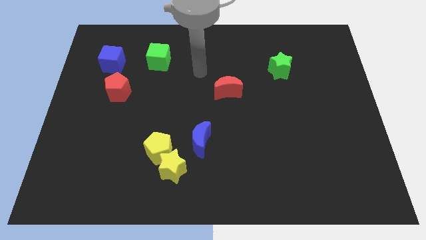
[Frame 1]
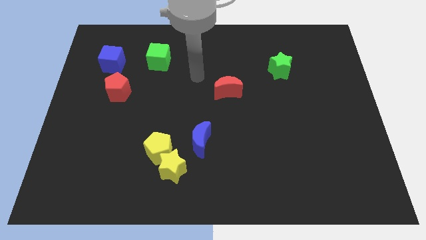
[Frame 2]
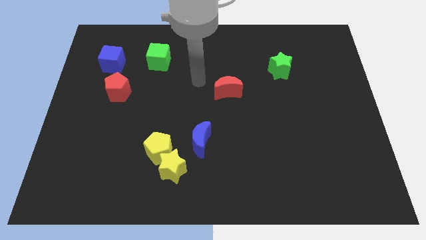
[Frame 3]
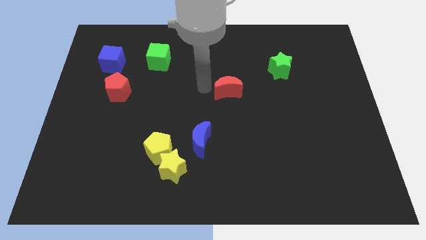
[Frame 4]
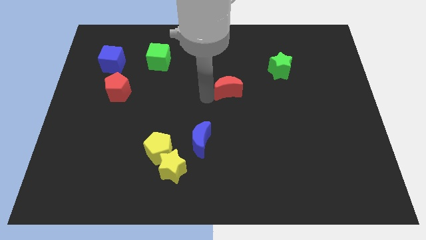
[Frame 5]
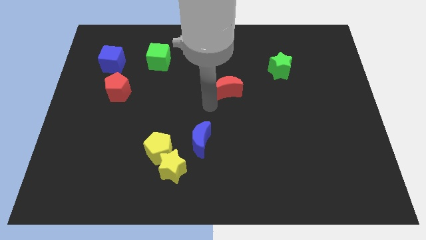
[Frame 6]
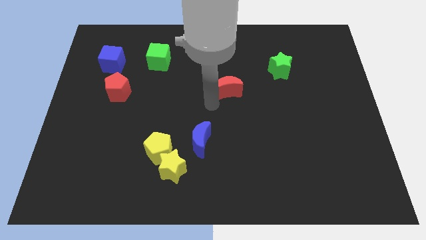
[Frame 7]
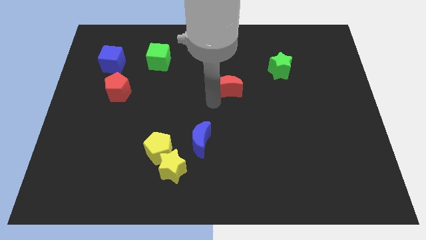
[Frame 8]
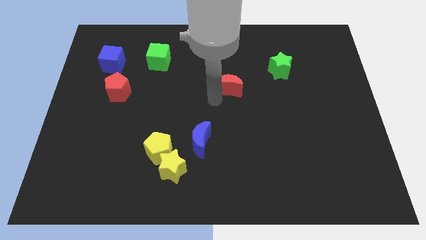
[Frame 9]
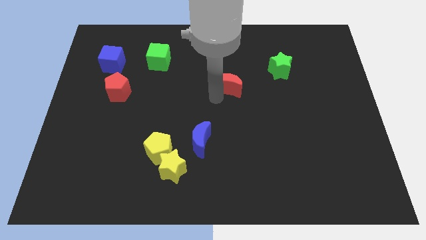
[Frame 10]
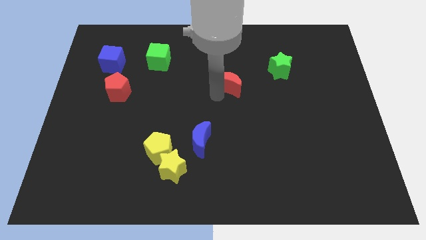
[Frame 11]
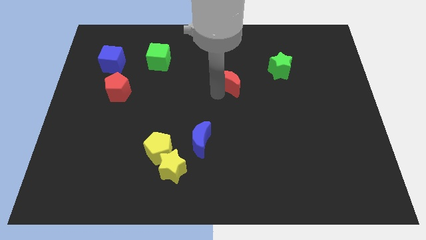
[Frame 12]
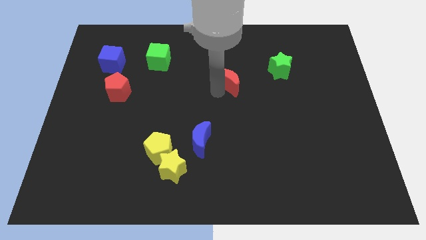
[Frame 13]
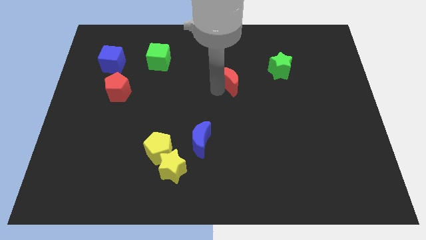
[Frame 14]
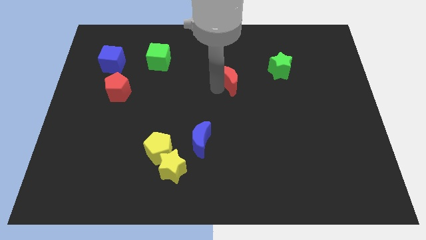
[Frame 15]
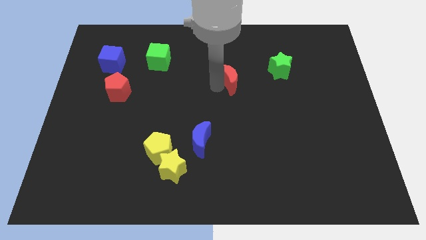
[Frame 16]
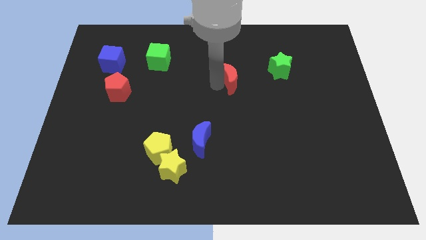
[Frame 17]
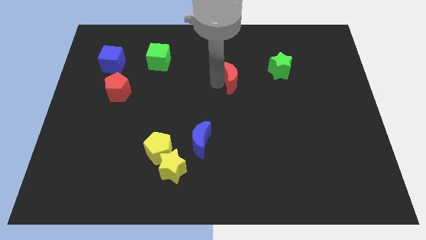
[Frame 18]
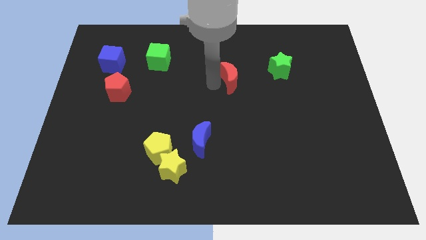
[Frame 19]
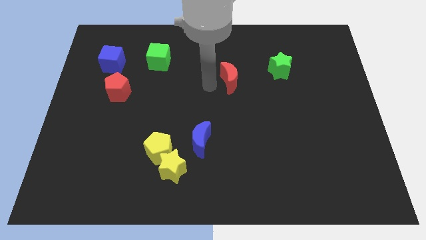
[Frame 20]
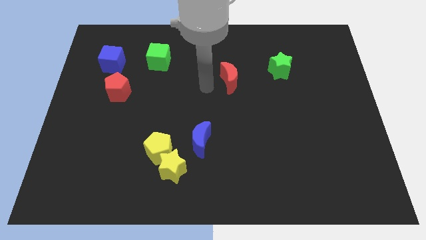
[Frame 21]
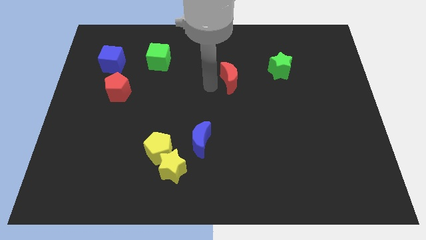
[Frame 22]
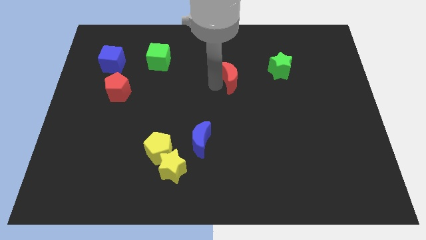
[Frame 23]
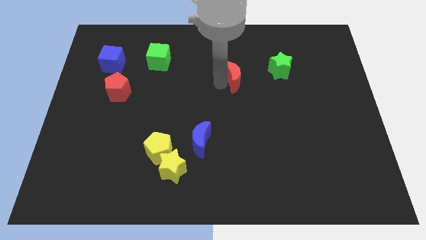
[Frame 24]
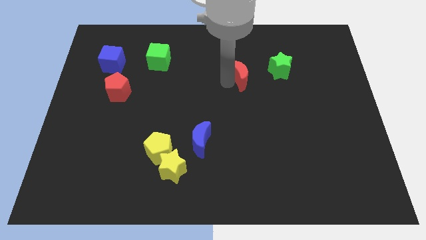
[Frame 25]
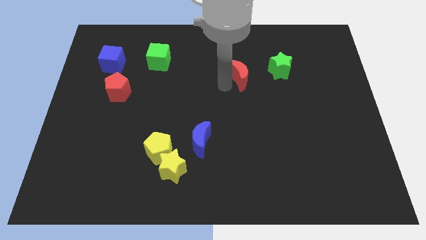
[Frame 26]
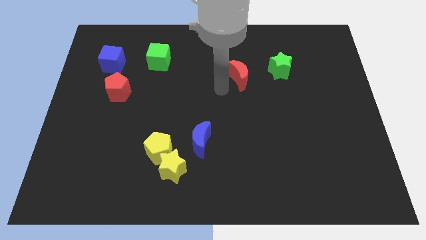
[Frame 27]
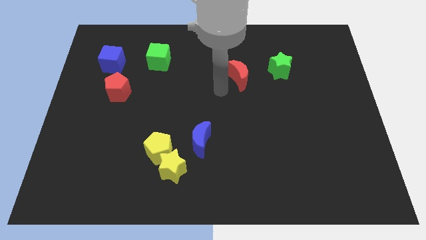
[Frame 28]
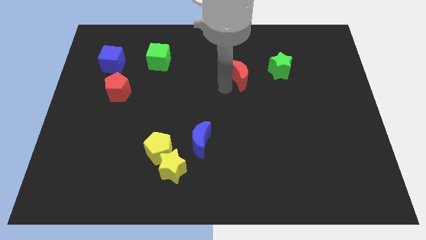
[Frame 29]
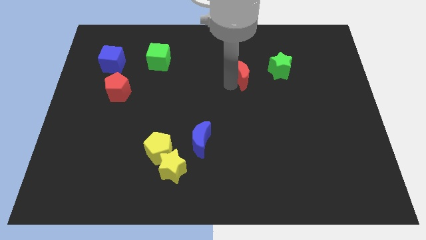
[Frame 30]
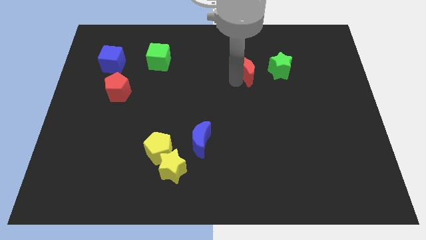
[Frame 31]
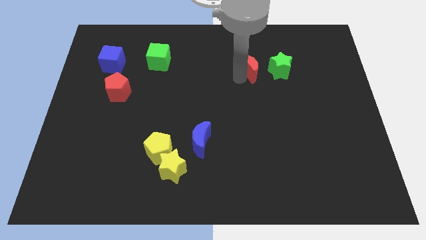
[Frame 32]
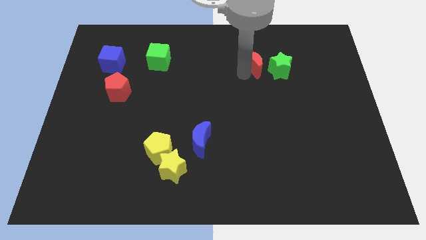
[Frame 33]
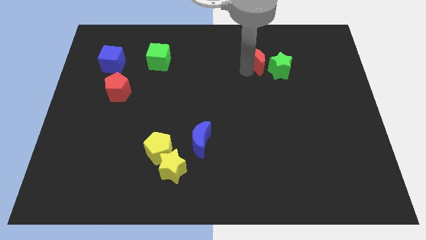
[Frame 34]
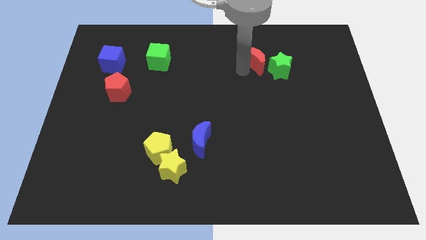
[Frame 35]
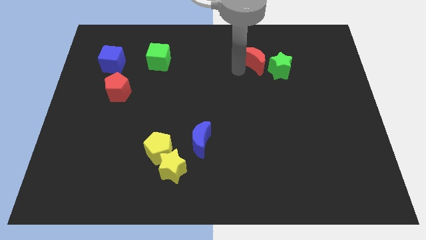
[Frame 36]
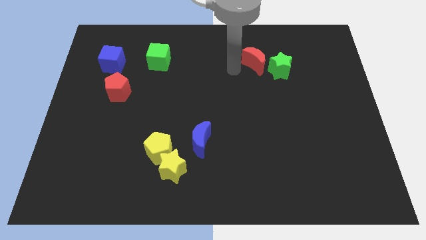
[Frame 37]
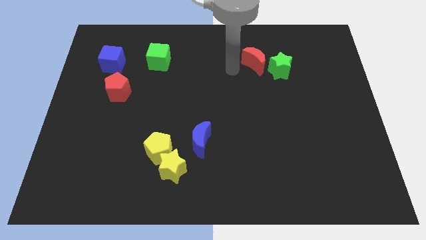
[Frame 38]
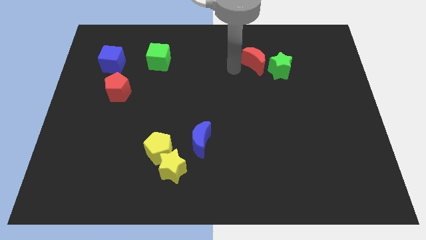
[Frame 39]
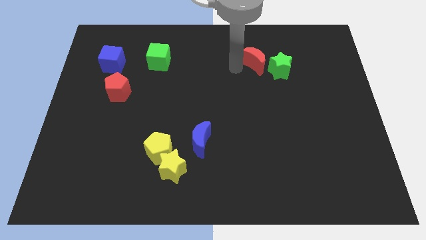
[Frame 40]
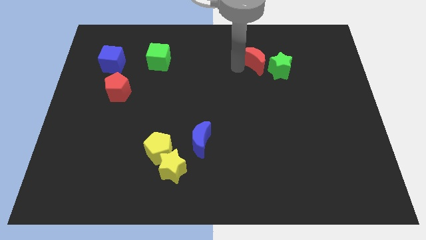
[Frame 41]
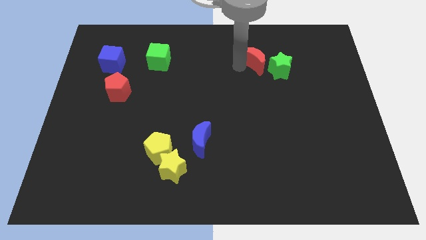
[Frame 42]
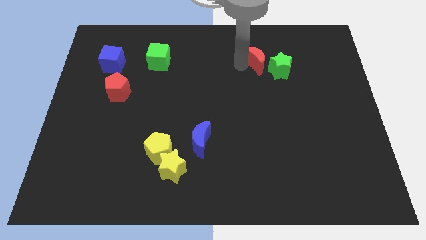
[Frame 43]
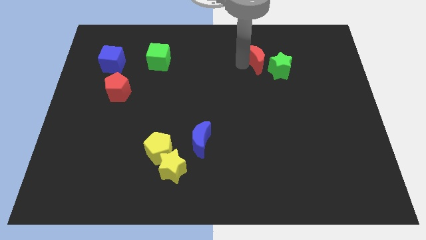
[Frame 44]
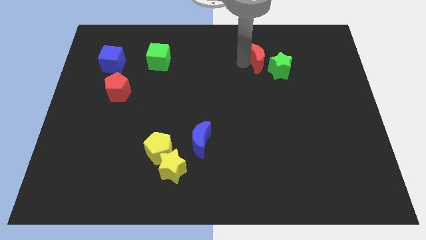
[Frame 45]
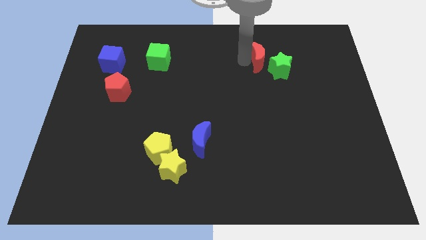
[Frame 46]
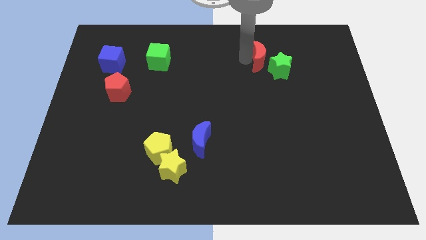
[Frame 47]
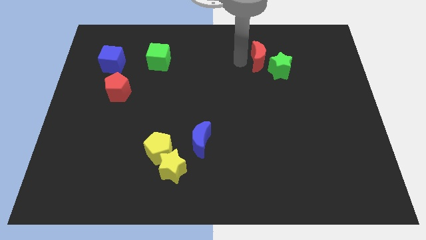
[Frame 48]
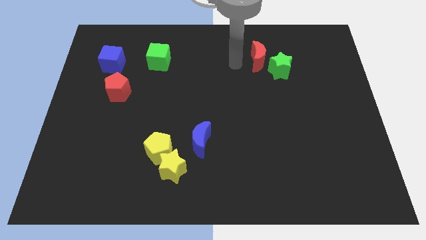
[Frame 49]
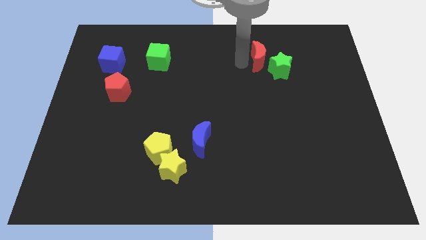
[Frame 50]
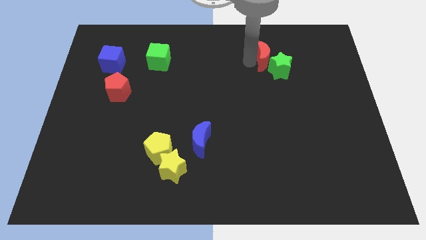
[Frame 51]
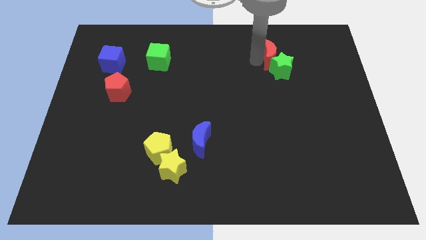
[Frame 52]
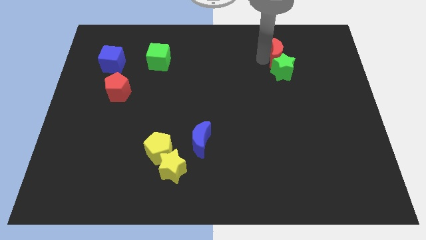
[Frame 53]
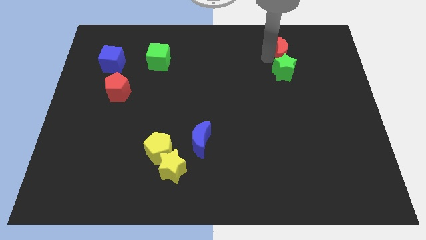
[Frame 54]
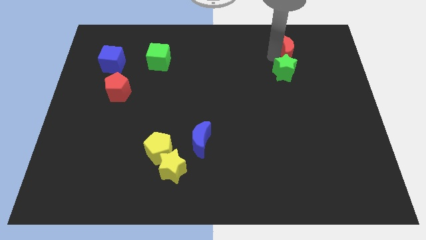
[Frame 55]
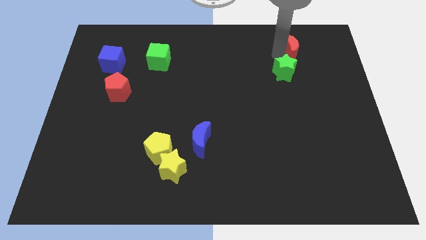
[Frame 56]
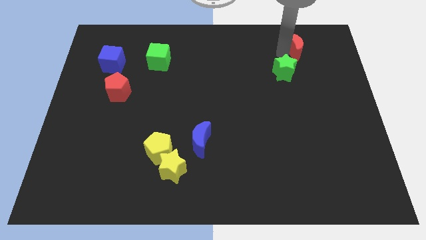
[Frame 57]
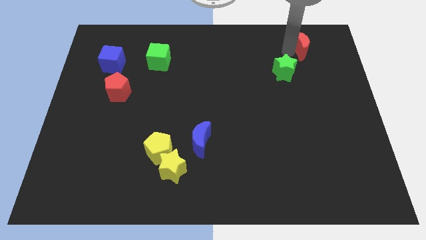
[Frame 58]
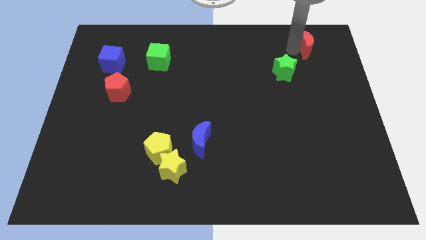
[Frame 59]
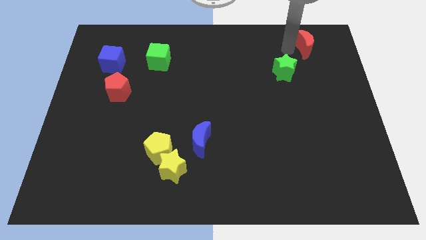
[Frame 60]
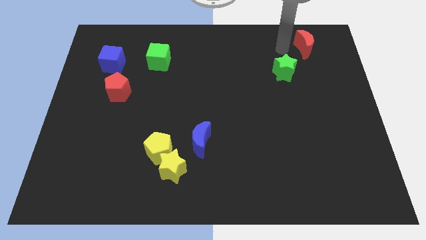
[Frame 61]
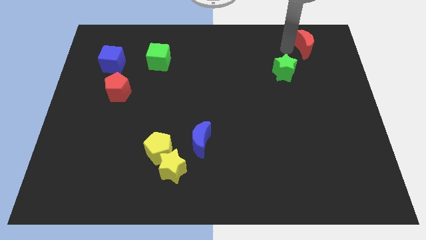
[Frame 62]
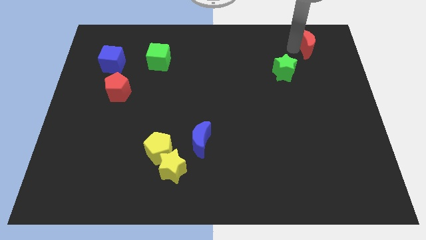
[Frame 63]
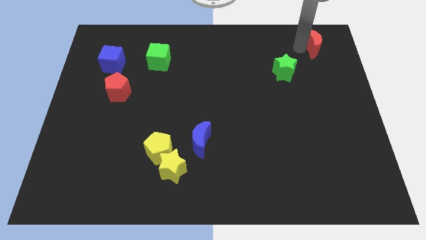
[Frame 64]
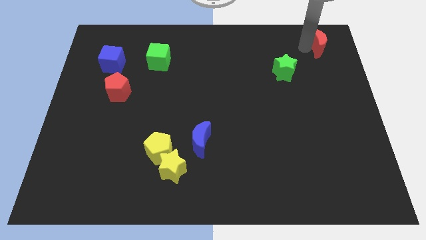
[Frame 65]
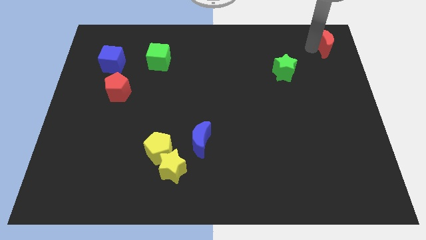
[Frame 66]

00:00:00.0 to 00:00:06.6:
slide the red moon to the upper right corner

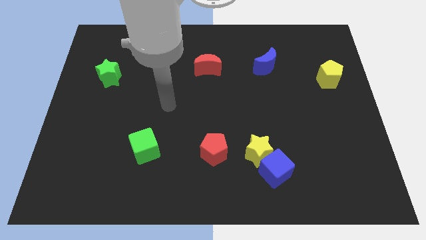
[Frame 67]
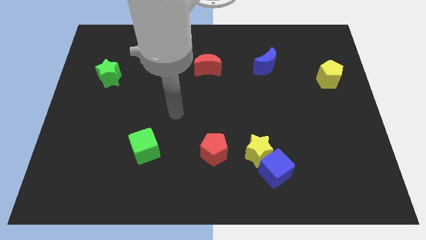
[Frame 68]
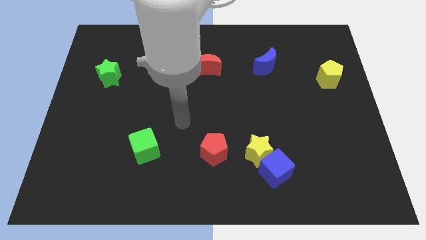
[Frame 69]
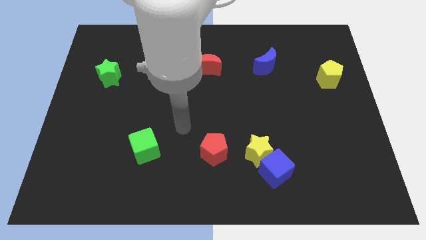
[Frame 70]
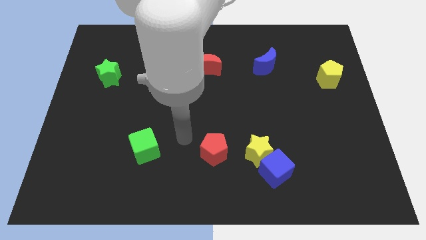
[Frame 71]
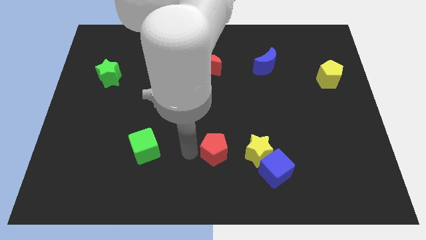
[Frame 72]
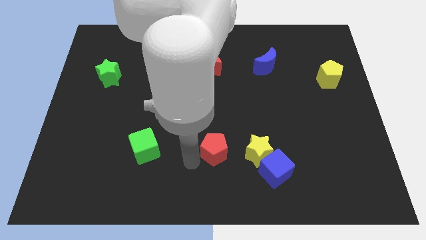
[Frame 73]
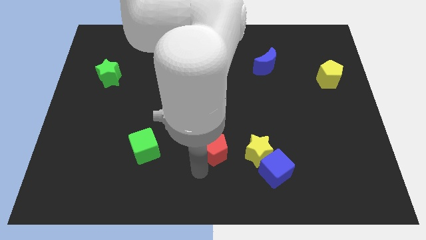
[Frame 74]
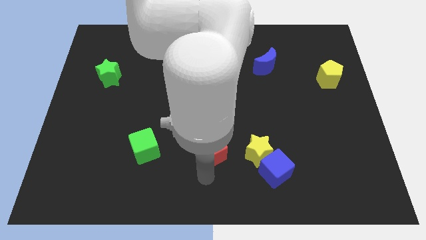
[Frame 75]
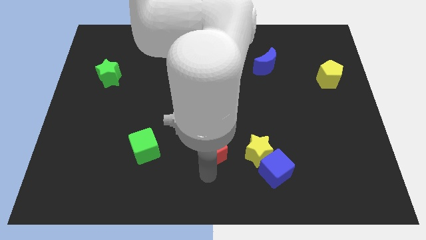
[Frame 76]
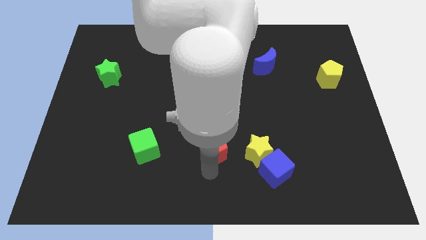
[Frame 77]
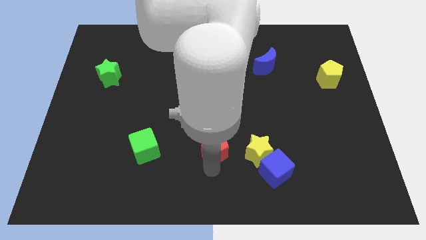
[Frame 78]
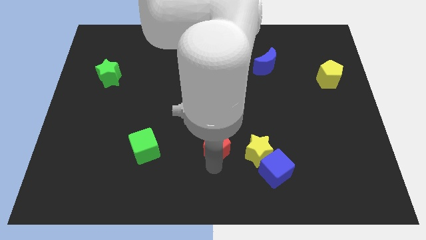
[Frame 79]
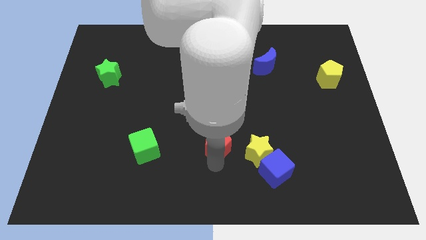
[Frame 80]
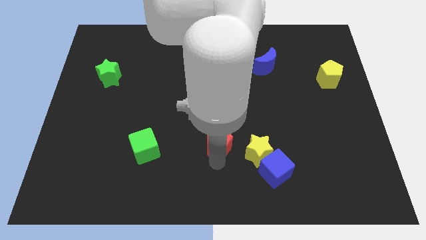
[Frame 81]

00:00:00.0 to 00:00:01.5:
move the red pentagon to the middle
